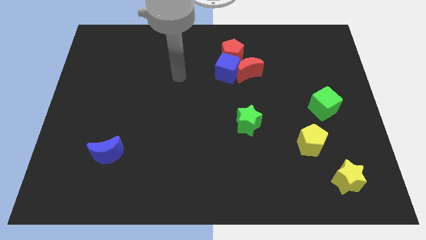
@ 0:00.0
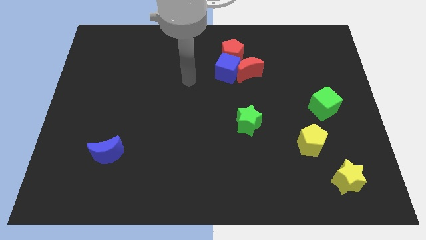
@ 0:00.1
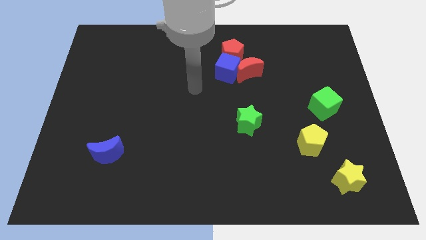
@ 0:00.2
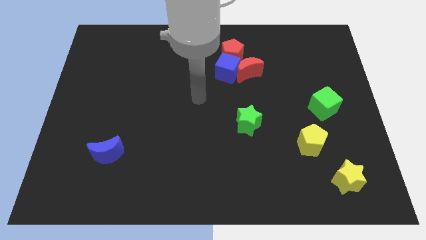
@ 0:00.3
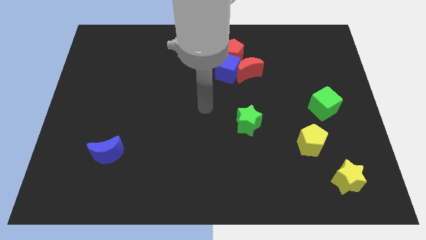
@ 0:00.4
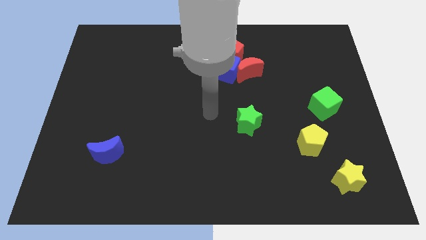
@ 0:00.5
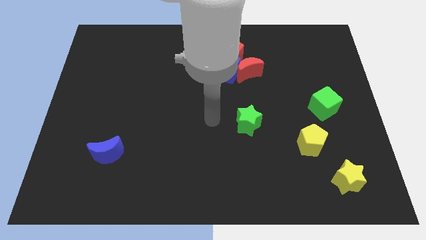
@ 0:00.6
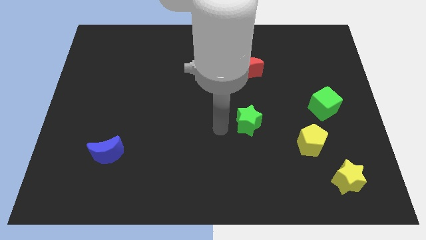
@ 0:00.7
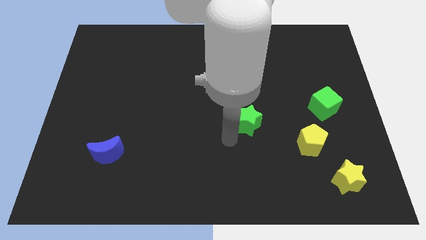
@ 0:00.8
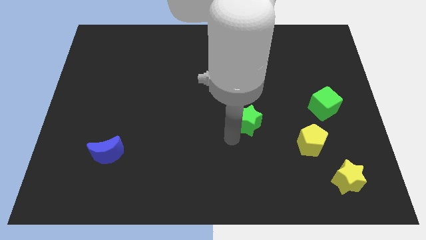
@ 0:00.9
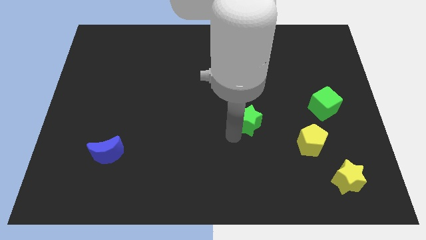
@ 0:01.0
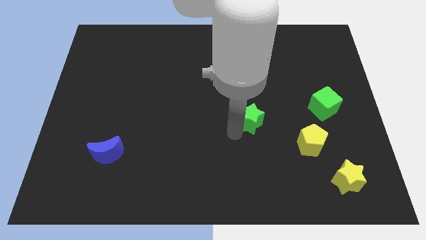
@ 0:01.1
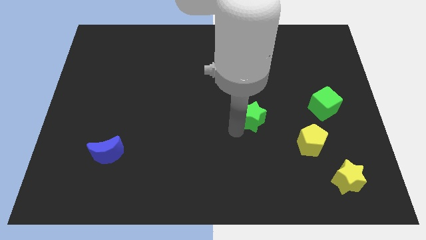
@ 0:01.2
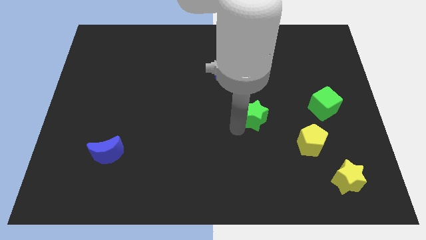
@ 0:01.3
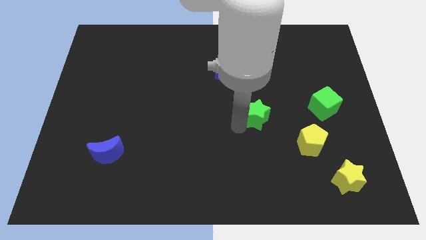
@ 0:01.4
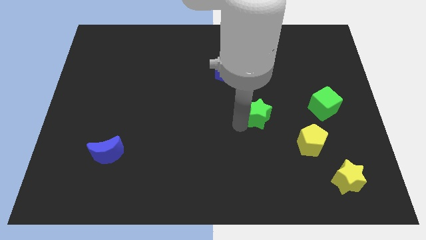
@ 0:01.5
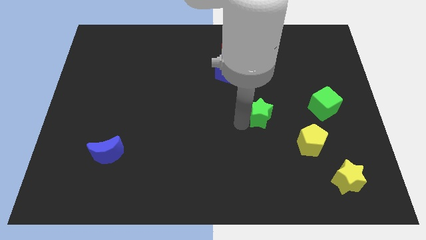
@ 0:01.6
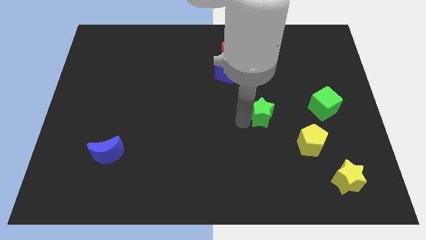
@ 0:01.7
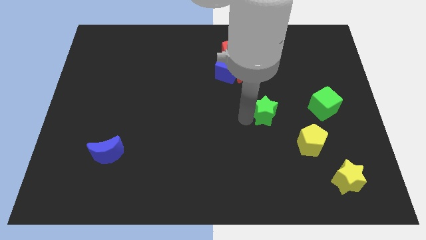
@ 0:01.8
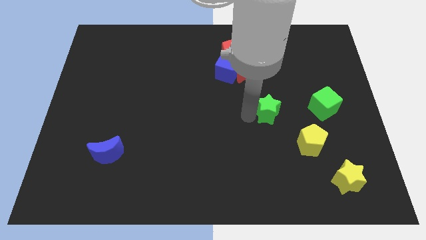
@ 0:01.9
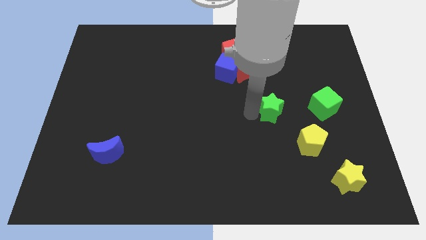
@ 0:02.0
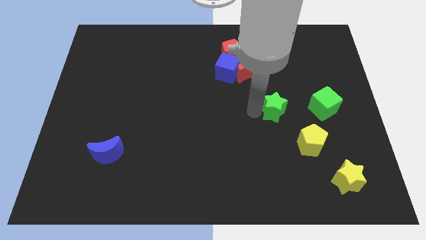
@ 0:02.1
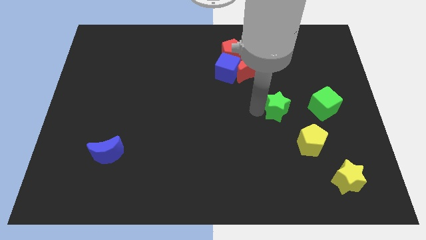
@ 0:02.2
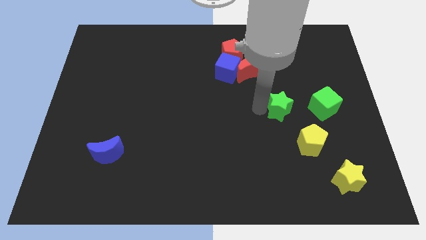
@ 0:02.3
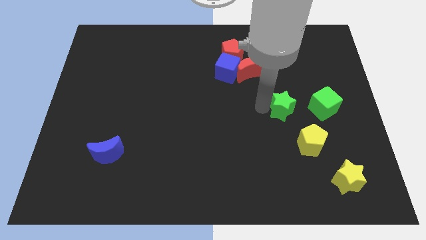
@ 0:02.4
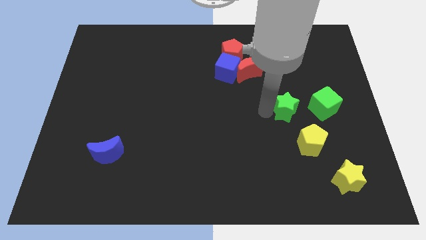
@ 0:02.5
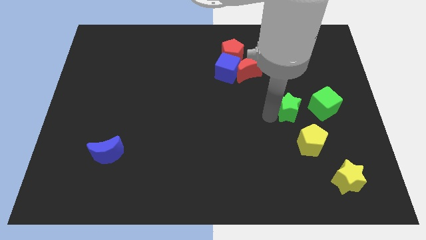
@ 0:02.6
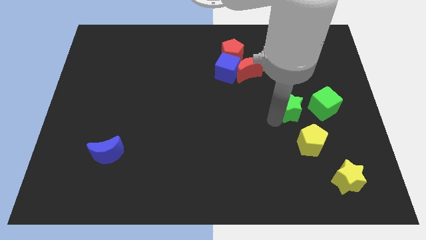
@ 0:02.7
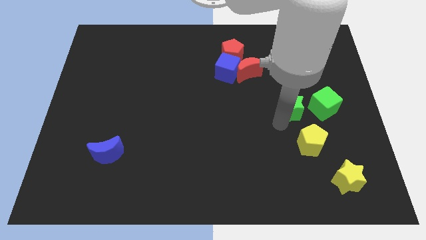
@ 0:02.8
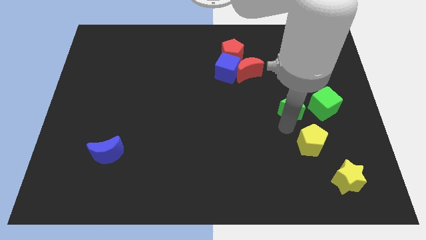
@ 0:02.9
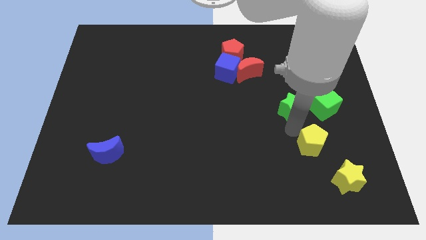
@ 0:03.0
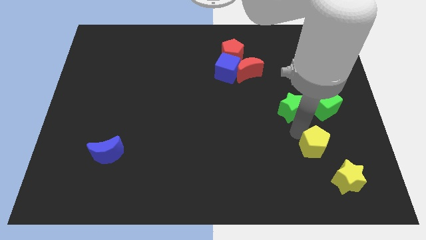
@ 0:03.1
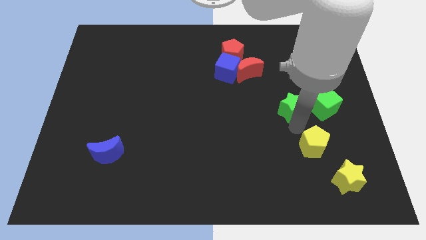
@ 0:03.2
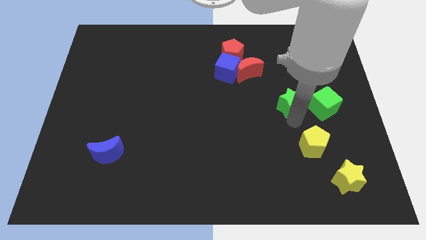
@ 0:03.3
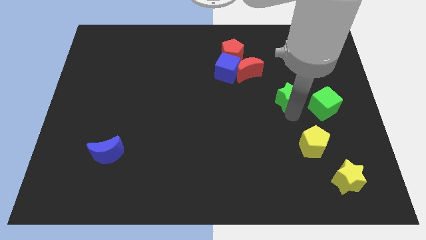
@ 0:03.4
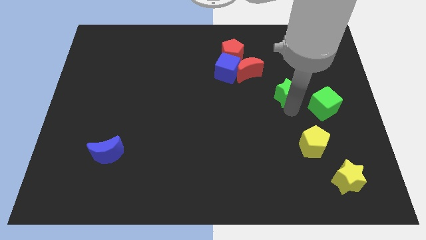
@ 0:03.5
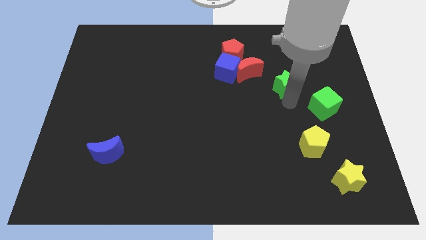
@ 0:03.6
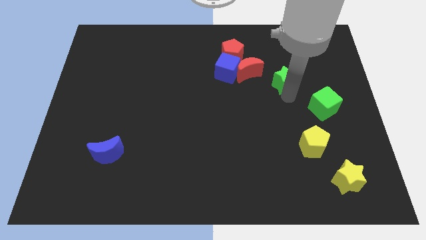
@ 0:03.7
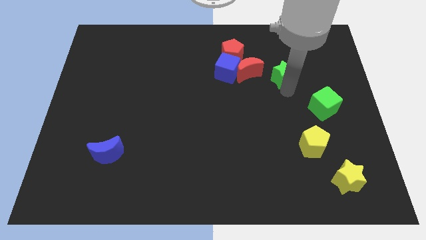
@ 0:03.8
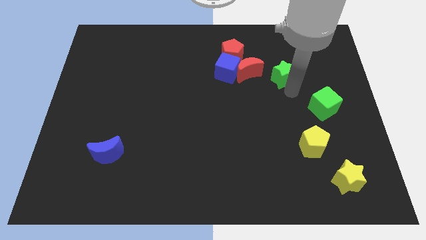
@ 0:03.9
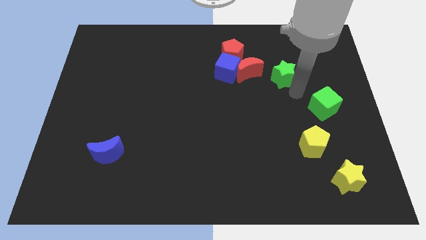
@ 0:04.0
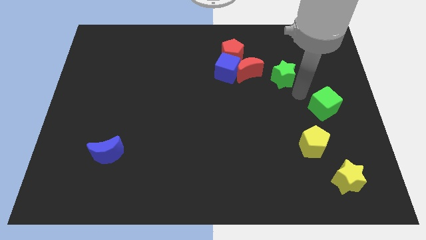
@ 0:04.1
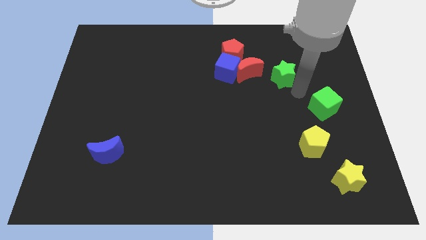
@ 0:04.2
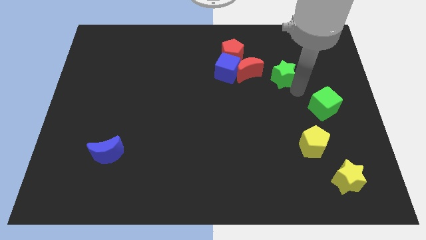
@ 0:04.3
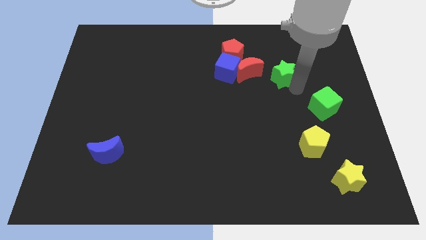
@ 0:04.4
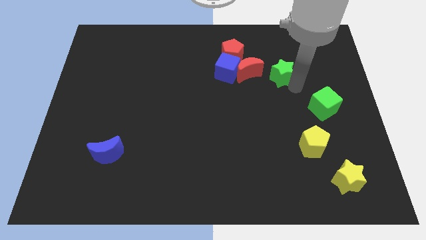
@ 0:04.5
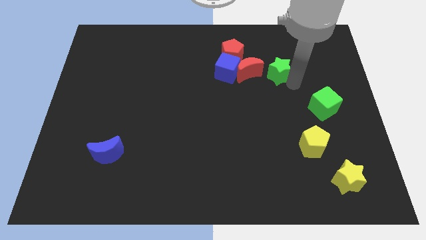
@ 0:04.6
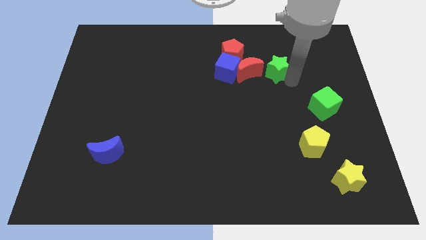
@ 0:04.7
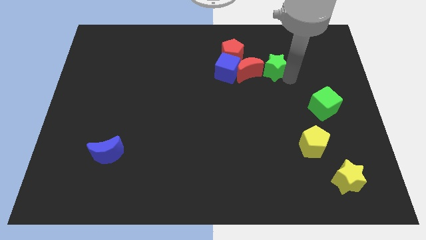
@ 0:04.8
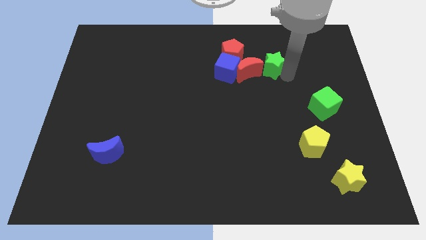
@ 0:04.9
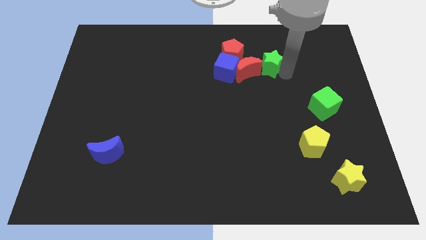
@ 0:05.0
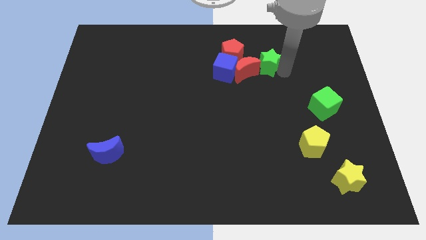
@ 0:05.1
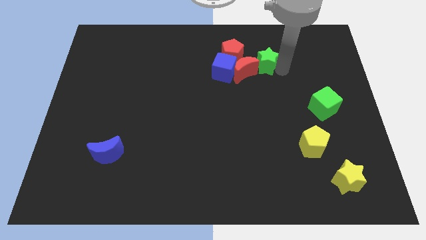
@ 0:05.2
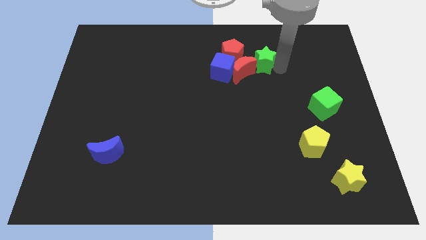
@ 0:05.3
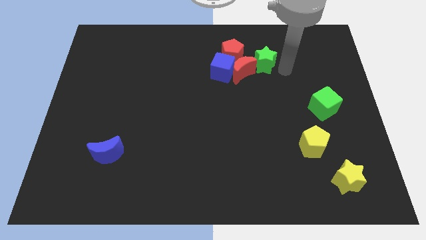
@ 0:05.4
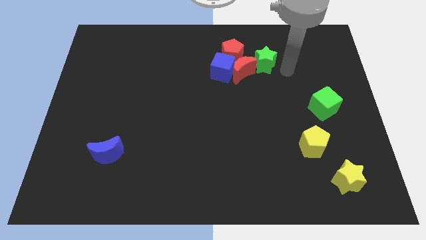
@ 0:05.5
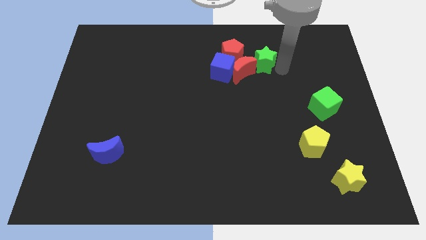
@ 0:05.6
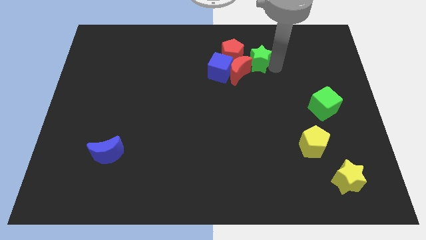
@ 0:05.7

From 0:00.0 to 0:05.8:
put the green star diagonally up and to the right of the blue cube

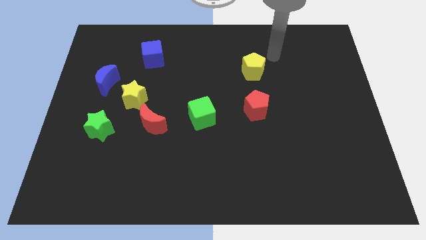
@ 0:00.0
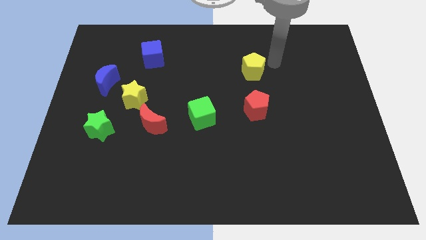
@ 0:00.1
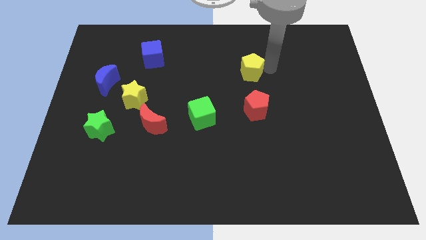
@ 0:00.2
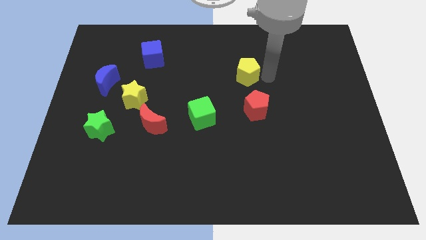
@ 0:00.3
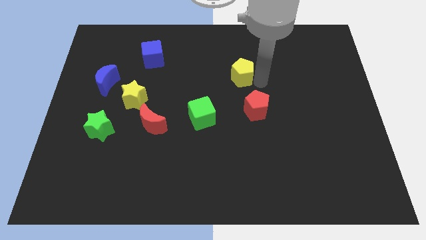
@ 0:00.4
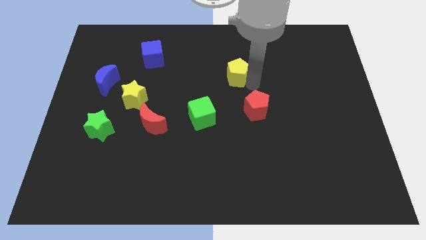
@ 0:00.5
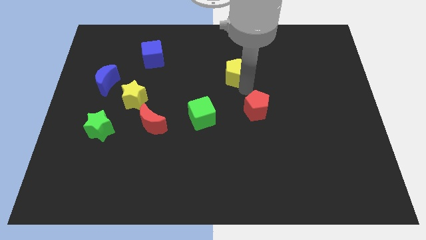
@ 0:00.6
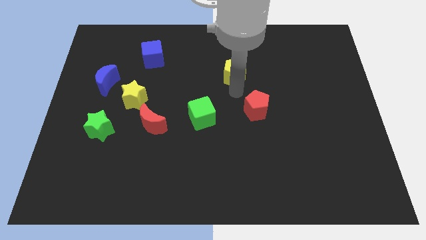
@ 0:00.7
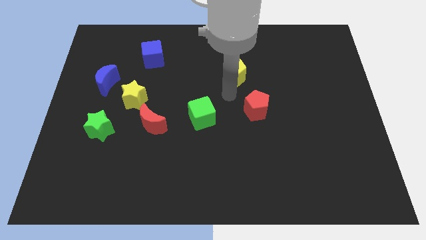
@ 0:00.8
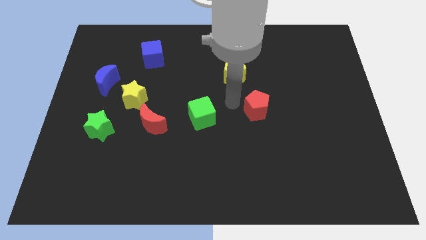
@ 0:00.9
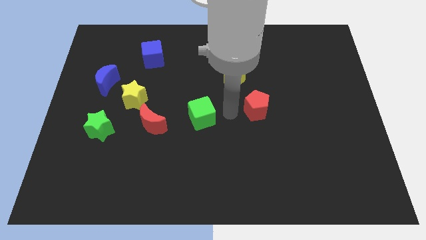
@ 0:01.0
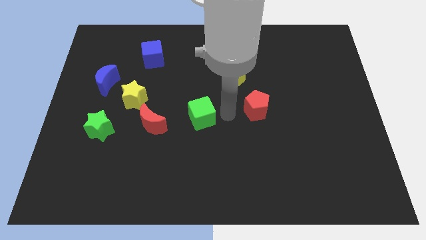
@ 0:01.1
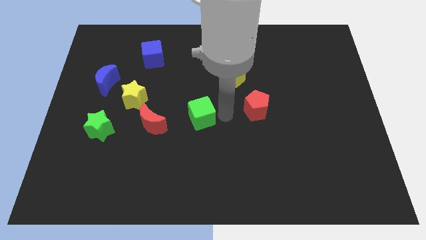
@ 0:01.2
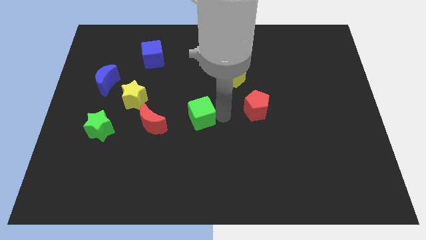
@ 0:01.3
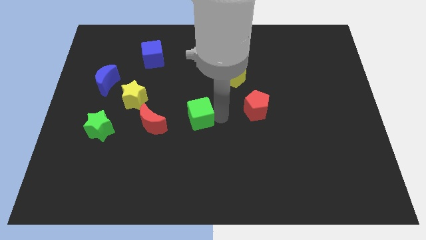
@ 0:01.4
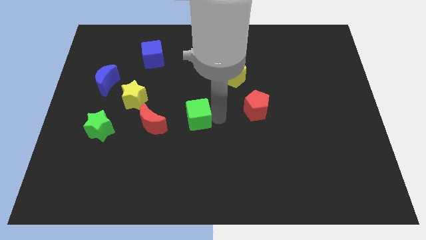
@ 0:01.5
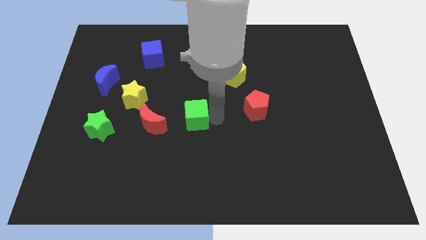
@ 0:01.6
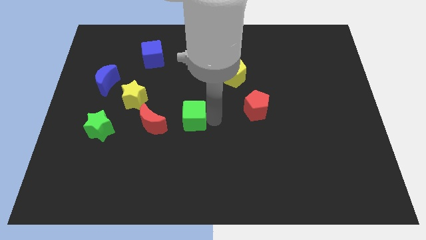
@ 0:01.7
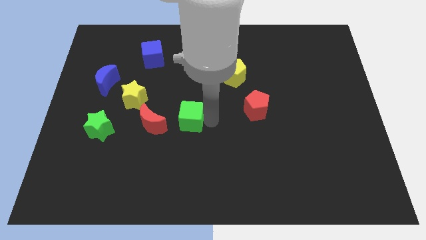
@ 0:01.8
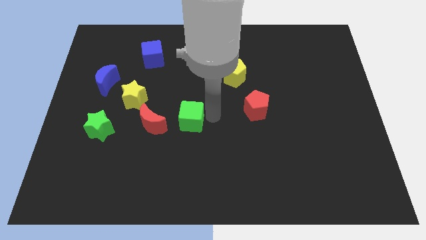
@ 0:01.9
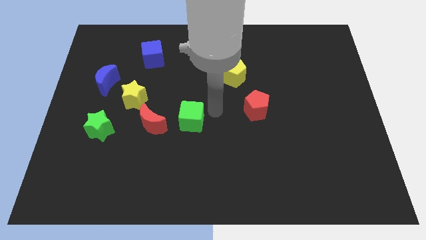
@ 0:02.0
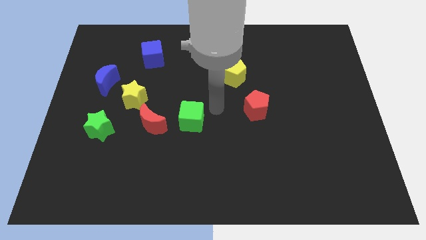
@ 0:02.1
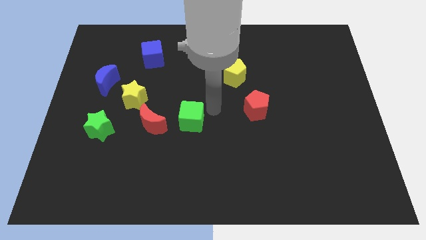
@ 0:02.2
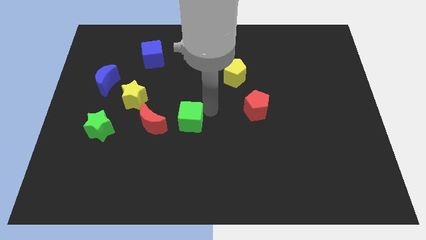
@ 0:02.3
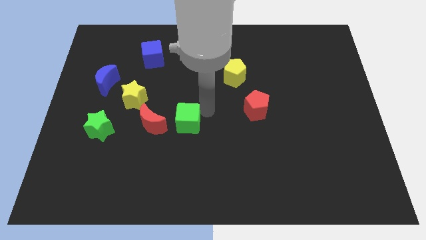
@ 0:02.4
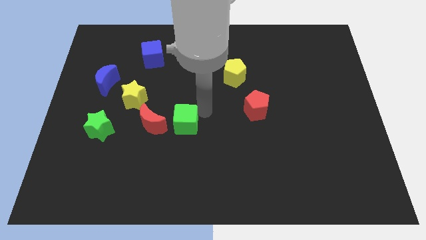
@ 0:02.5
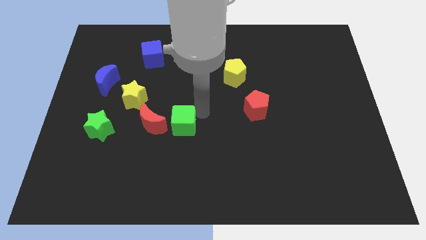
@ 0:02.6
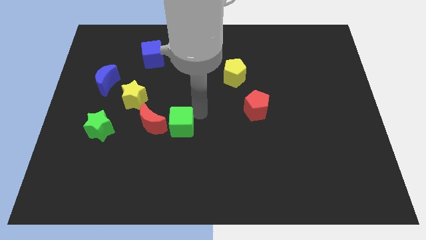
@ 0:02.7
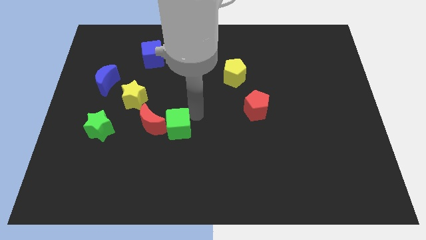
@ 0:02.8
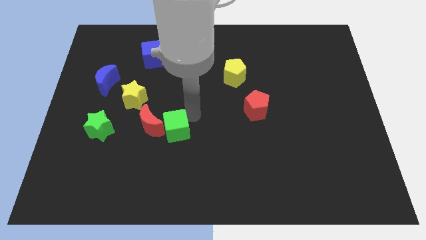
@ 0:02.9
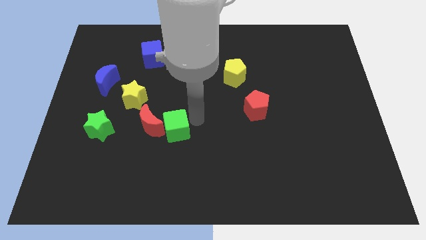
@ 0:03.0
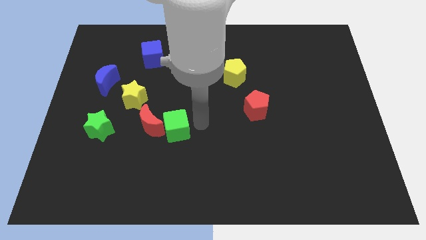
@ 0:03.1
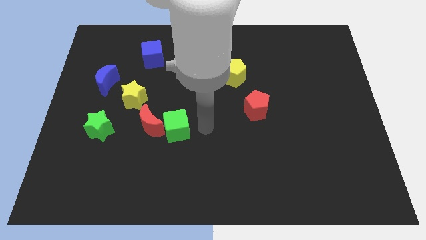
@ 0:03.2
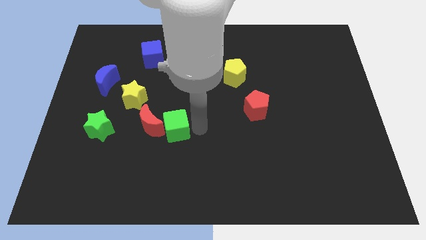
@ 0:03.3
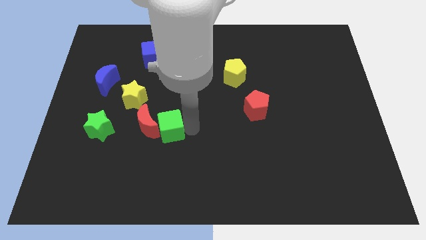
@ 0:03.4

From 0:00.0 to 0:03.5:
move the green cube to the right of the green star
